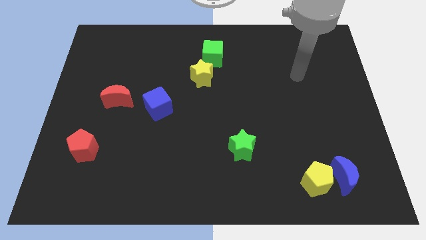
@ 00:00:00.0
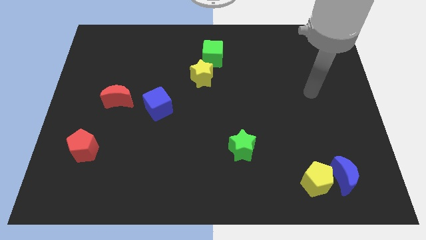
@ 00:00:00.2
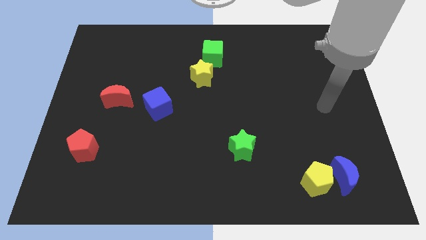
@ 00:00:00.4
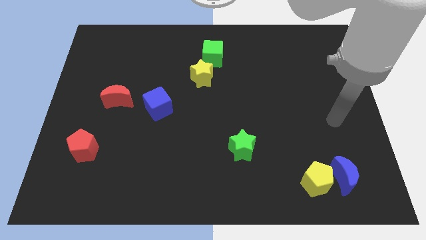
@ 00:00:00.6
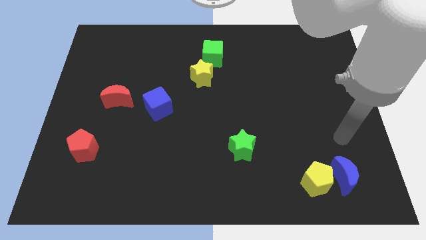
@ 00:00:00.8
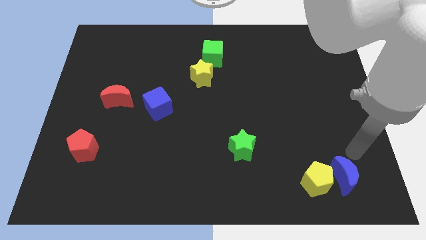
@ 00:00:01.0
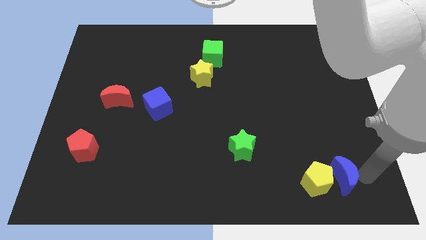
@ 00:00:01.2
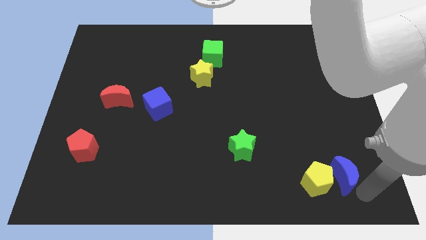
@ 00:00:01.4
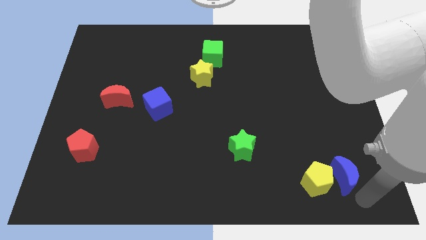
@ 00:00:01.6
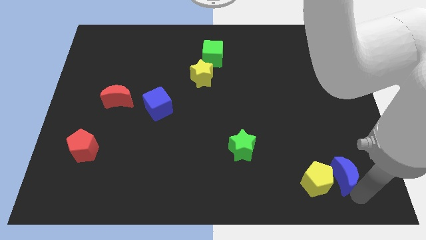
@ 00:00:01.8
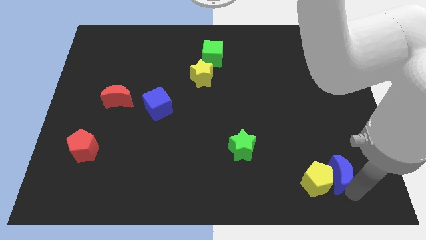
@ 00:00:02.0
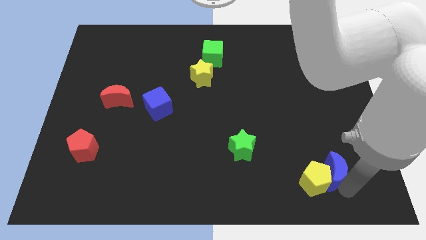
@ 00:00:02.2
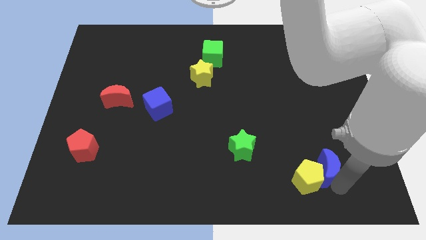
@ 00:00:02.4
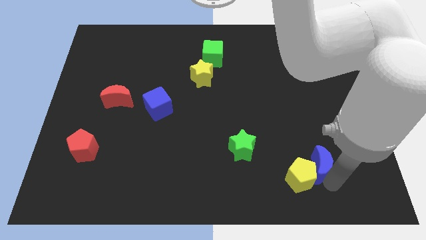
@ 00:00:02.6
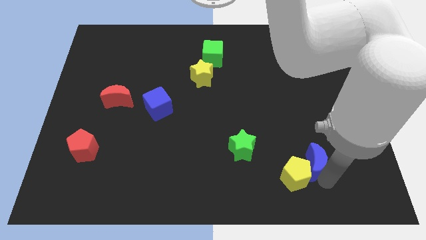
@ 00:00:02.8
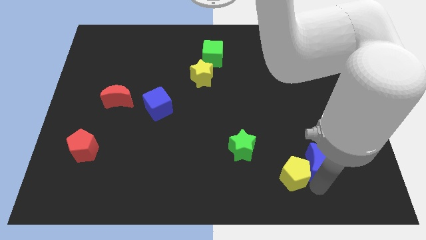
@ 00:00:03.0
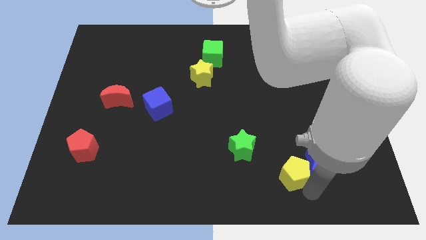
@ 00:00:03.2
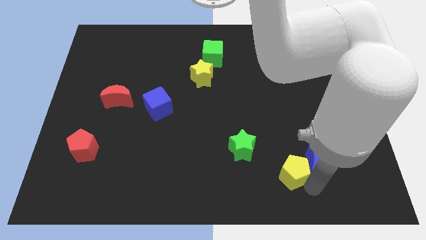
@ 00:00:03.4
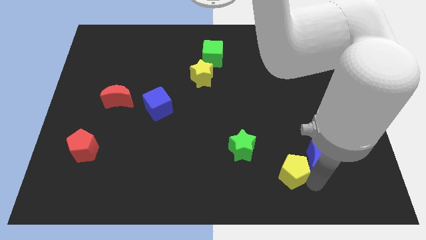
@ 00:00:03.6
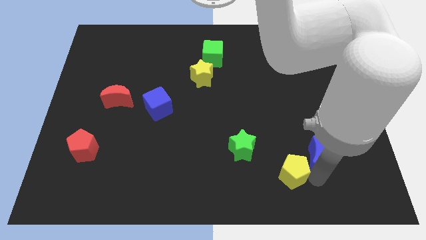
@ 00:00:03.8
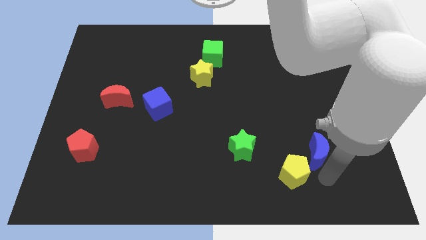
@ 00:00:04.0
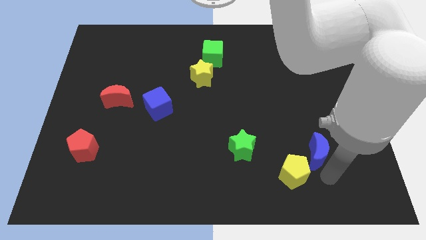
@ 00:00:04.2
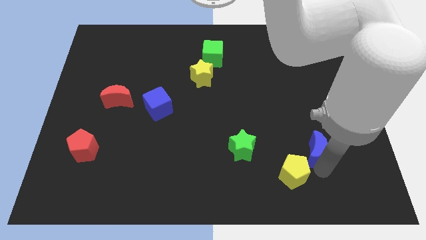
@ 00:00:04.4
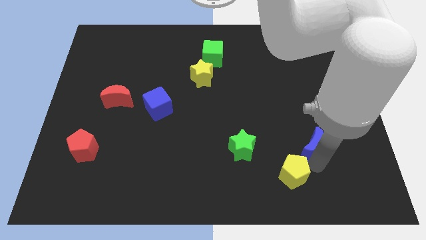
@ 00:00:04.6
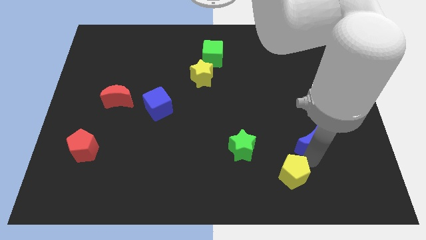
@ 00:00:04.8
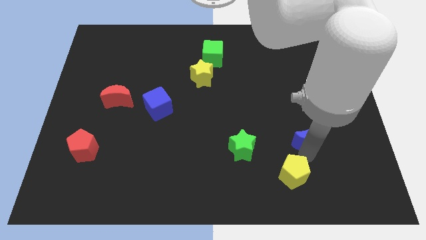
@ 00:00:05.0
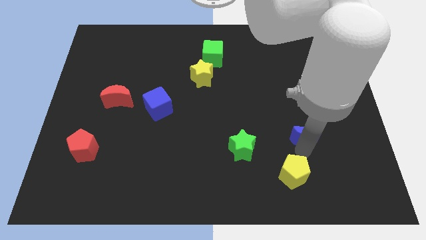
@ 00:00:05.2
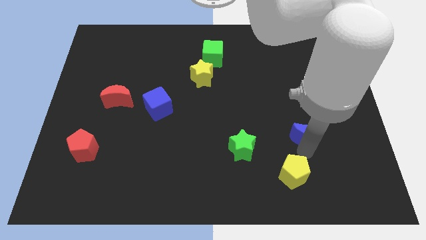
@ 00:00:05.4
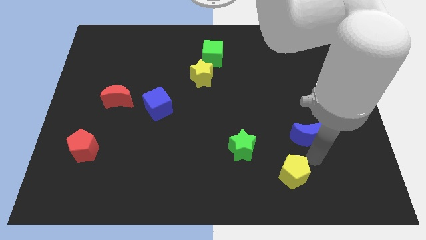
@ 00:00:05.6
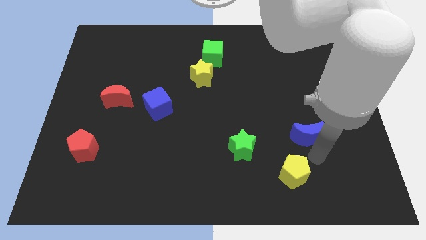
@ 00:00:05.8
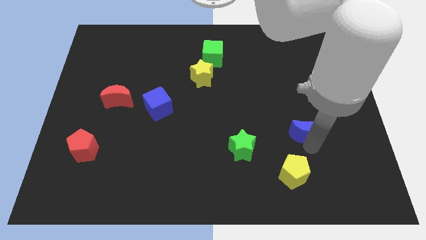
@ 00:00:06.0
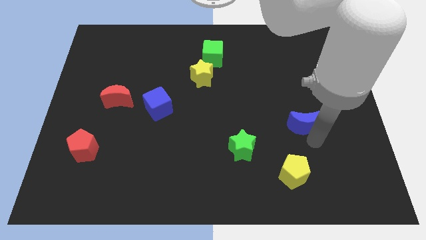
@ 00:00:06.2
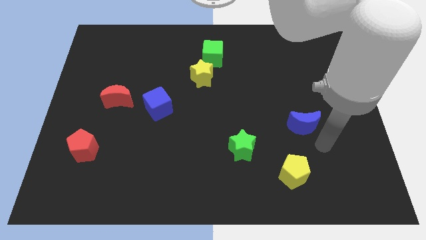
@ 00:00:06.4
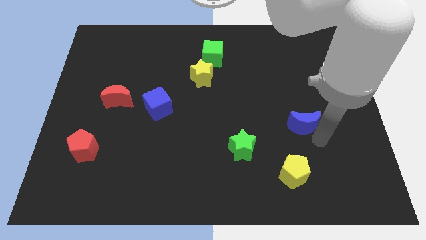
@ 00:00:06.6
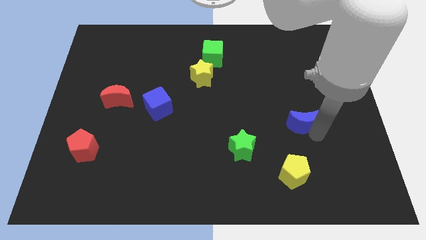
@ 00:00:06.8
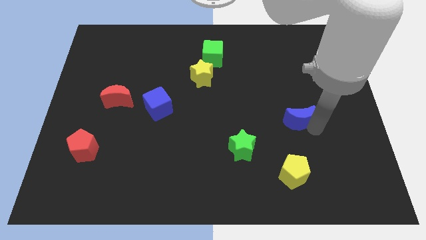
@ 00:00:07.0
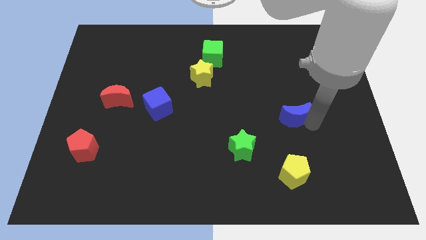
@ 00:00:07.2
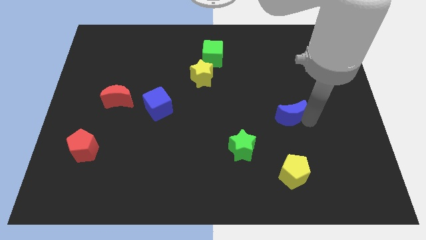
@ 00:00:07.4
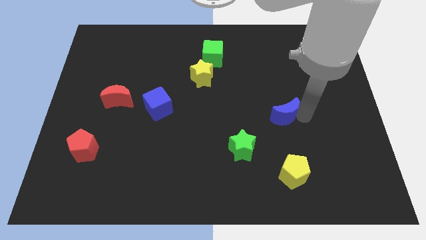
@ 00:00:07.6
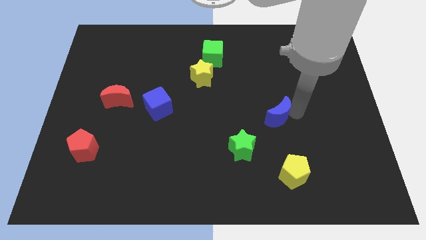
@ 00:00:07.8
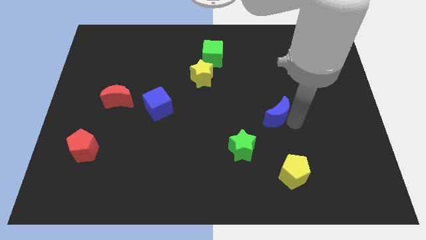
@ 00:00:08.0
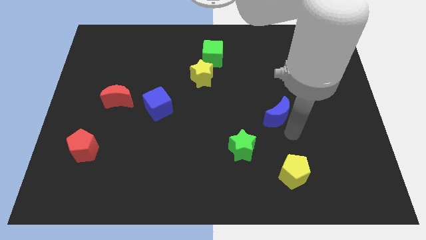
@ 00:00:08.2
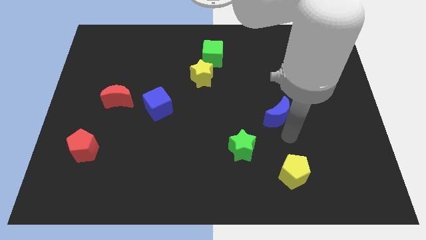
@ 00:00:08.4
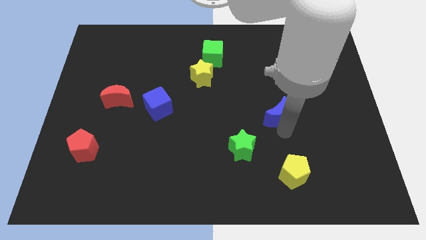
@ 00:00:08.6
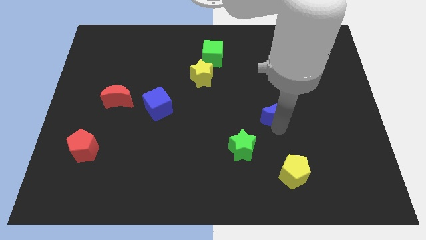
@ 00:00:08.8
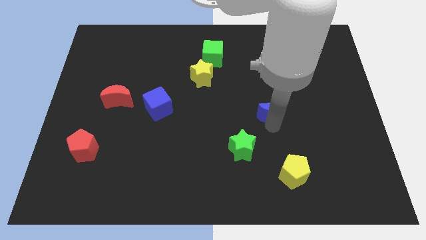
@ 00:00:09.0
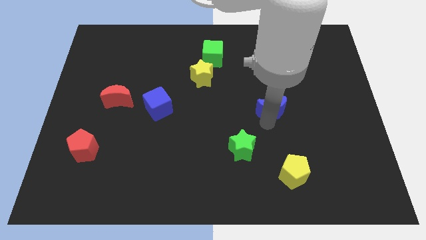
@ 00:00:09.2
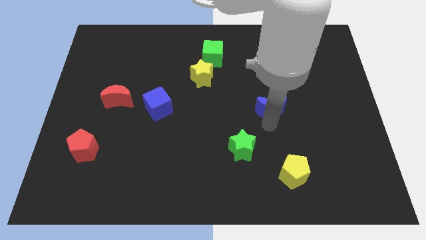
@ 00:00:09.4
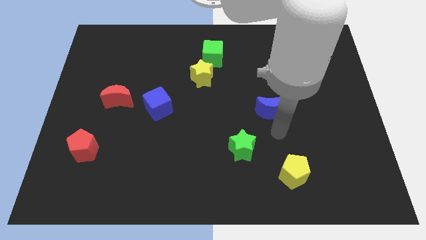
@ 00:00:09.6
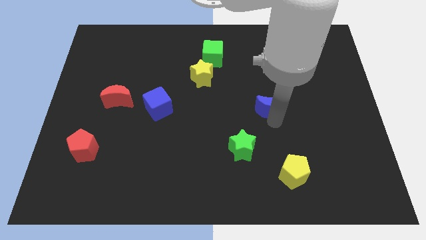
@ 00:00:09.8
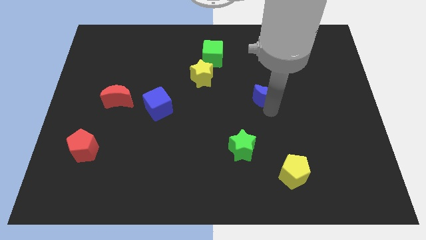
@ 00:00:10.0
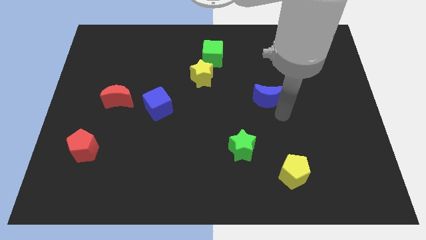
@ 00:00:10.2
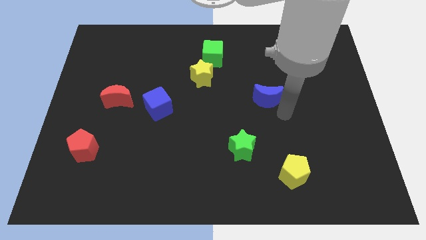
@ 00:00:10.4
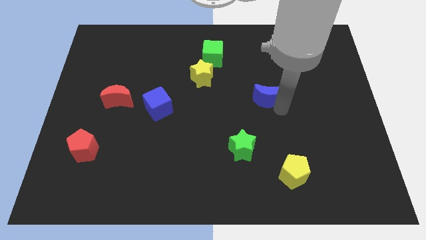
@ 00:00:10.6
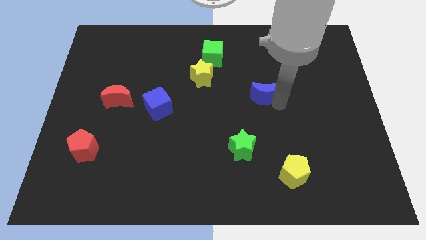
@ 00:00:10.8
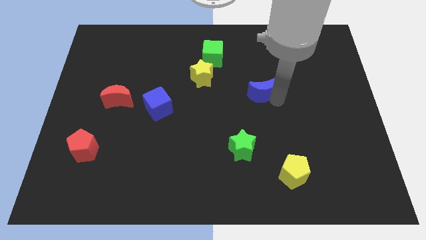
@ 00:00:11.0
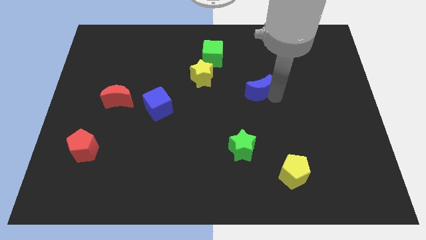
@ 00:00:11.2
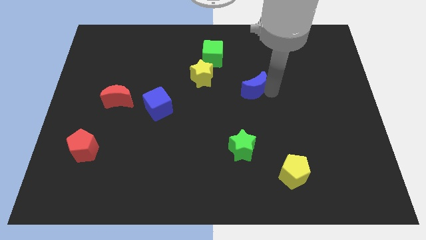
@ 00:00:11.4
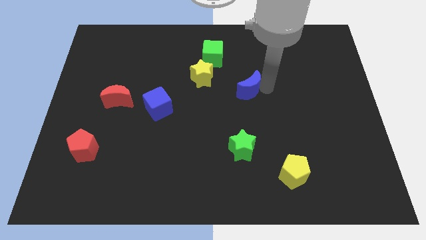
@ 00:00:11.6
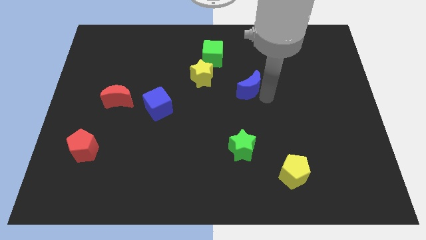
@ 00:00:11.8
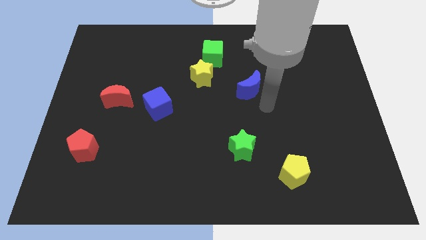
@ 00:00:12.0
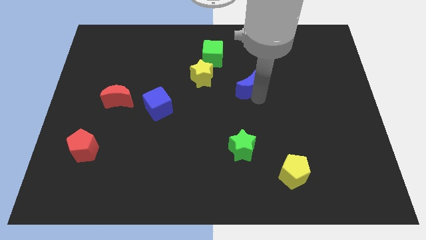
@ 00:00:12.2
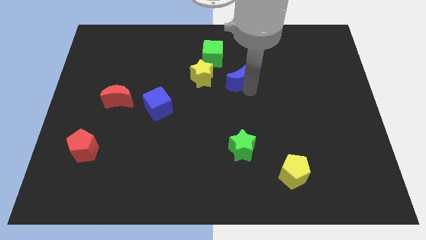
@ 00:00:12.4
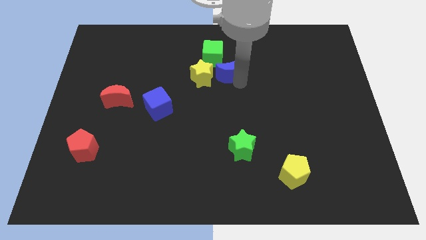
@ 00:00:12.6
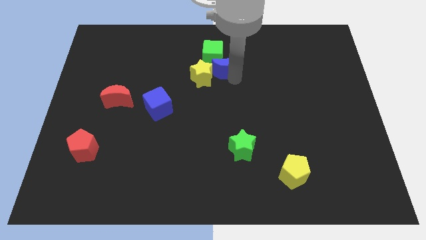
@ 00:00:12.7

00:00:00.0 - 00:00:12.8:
slide the blue moon close to the green cube
